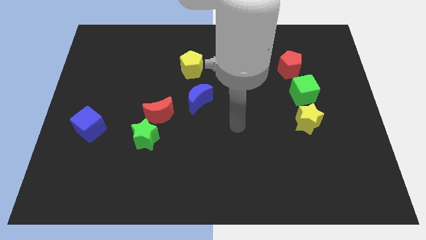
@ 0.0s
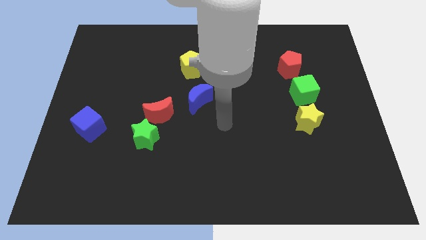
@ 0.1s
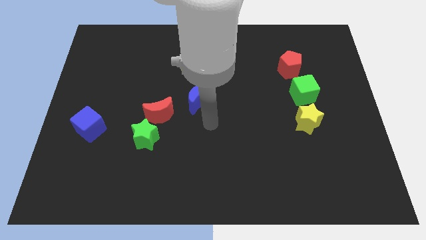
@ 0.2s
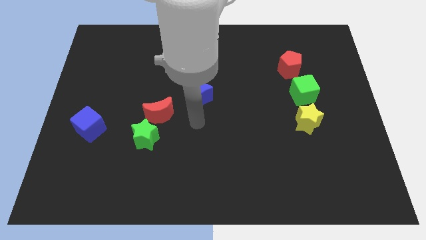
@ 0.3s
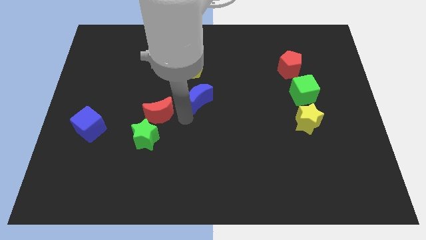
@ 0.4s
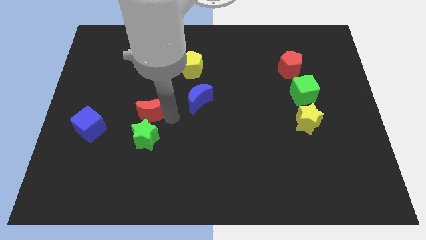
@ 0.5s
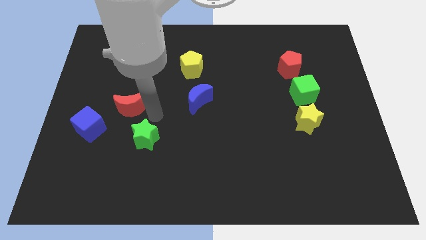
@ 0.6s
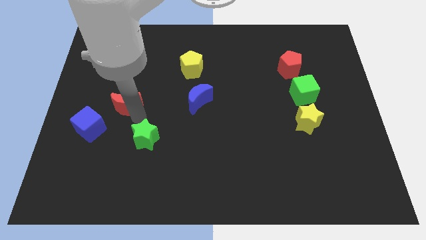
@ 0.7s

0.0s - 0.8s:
separate the green star from the red moon

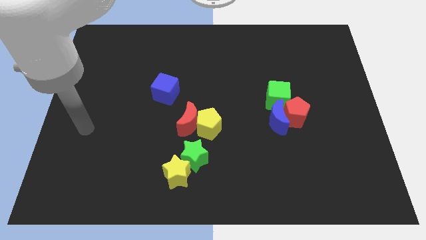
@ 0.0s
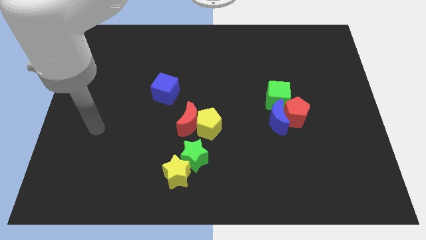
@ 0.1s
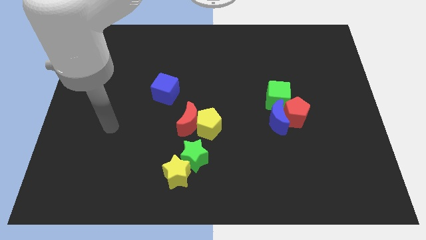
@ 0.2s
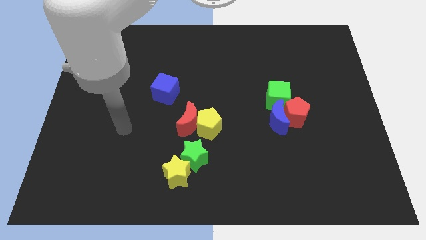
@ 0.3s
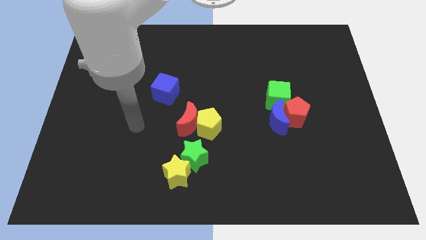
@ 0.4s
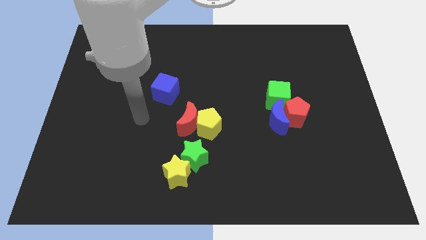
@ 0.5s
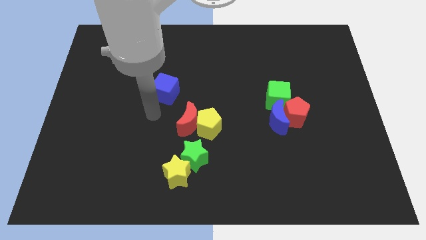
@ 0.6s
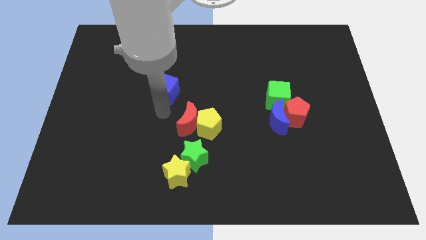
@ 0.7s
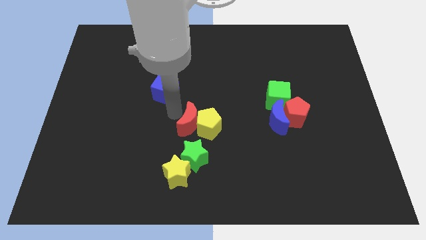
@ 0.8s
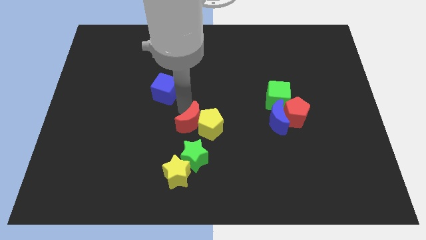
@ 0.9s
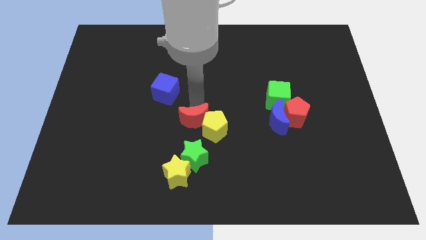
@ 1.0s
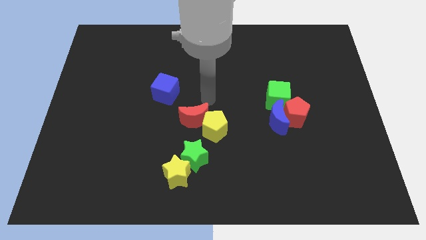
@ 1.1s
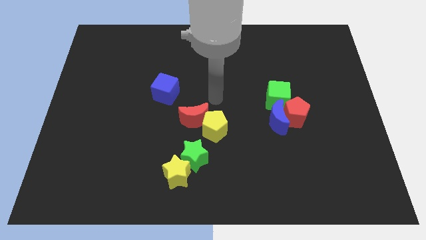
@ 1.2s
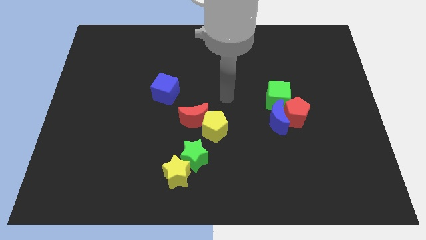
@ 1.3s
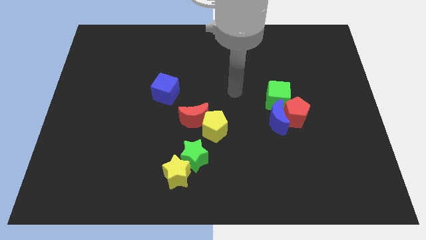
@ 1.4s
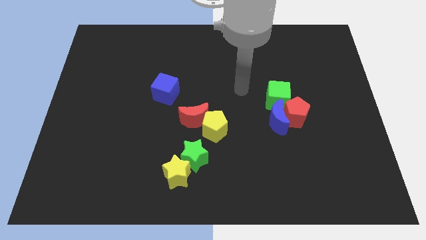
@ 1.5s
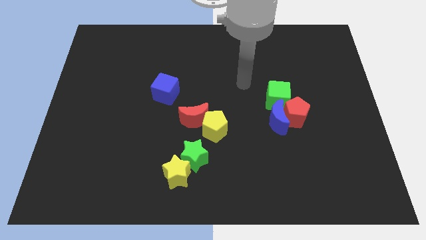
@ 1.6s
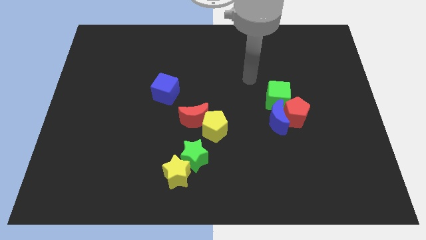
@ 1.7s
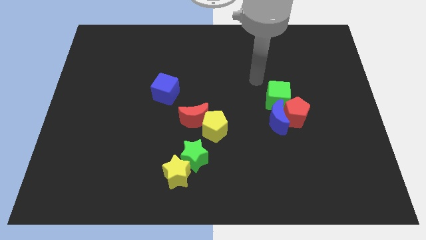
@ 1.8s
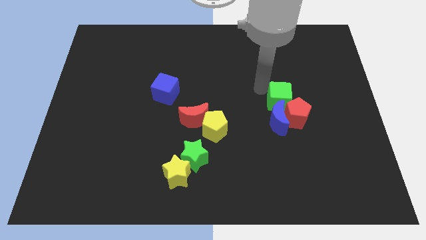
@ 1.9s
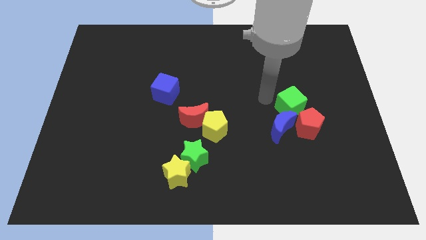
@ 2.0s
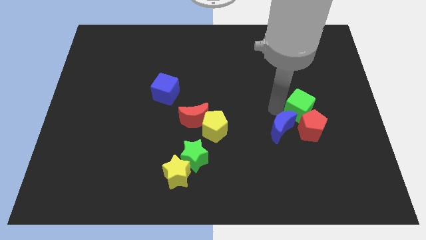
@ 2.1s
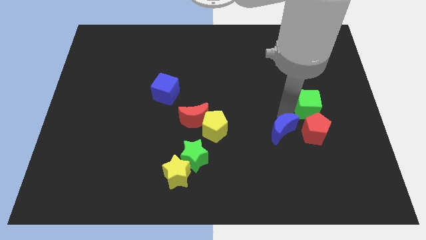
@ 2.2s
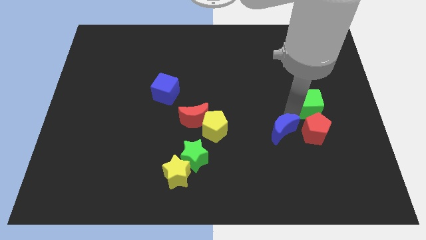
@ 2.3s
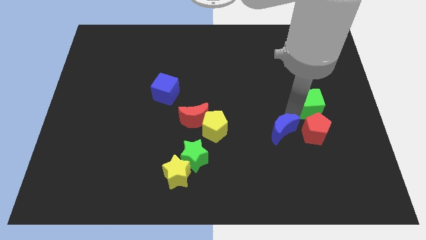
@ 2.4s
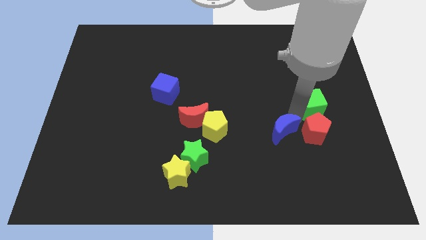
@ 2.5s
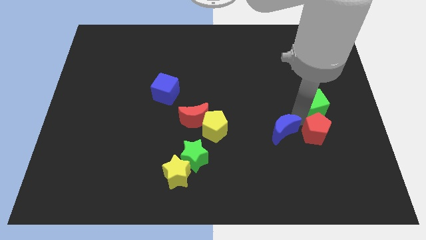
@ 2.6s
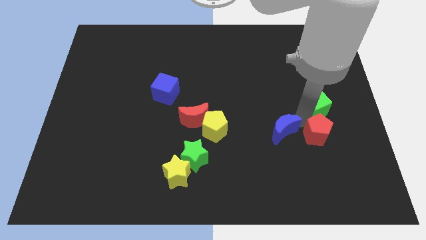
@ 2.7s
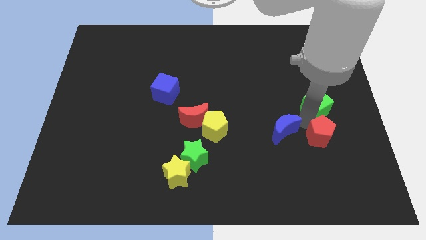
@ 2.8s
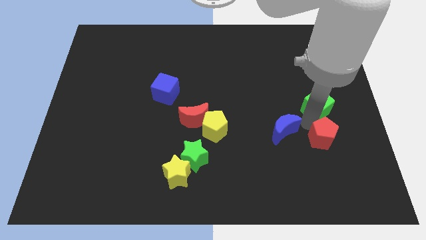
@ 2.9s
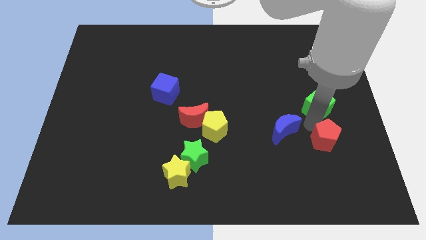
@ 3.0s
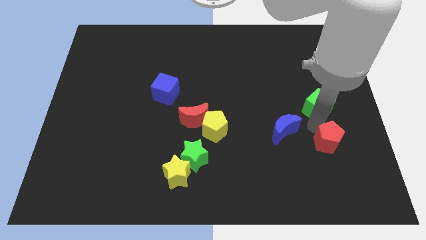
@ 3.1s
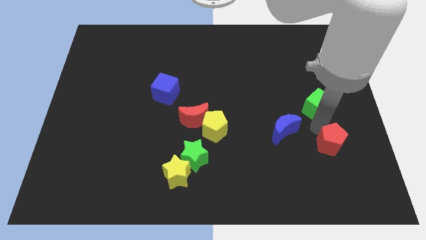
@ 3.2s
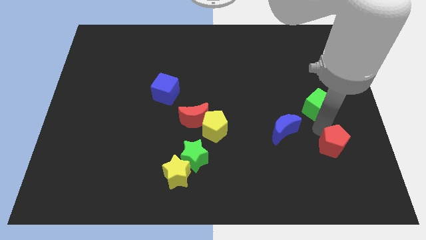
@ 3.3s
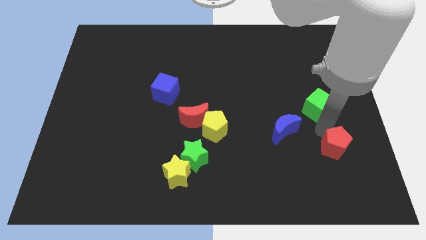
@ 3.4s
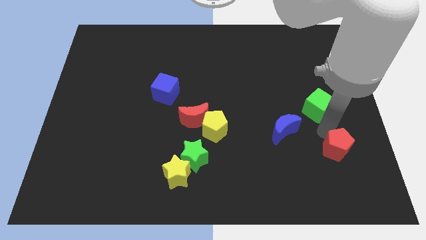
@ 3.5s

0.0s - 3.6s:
move the red pentagon away from the blue moon and green cube

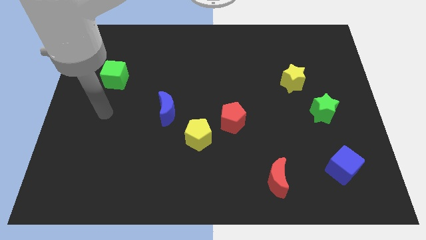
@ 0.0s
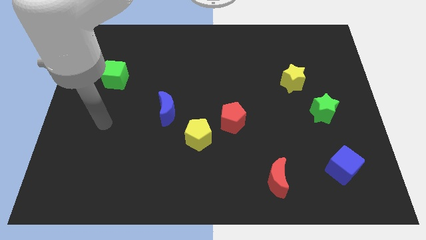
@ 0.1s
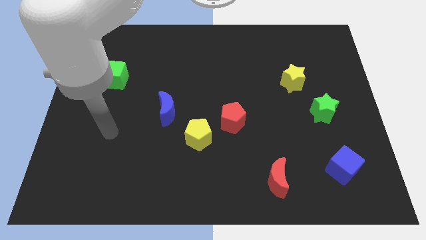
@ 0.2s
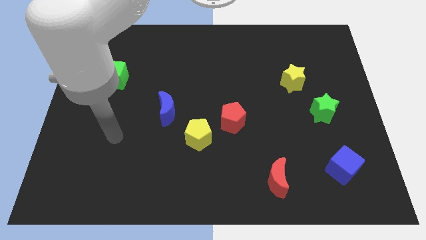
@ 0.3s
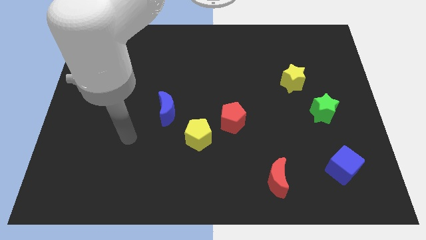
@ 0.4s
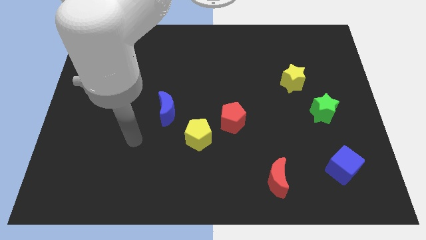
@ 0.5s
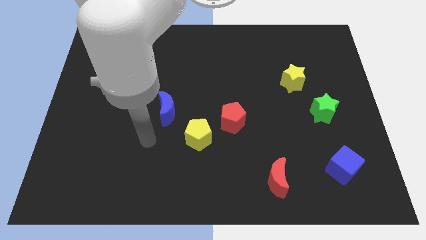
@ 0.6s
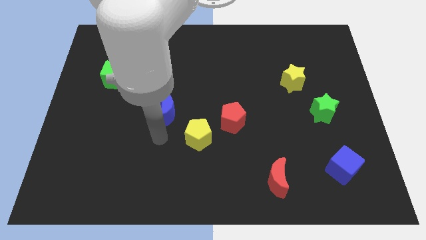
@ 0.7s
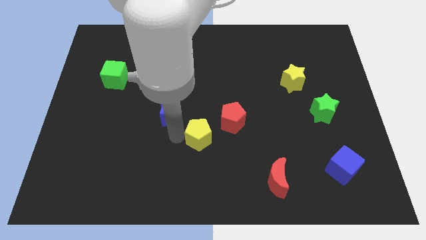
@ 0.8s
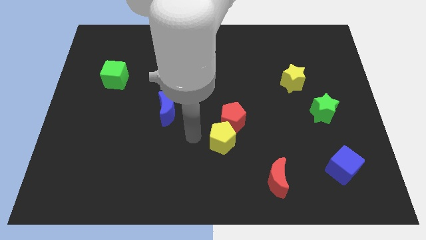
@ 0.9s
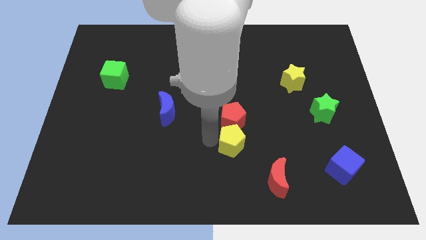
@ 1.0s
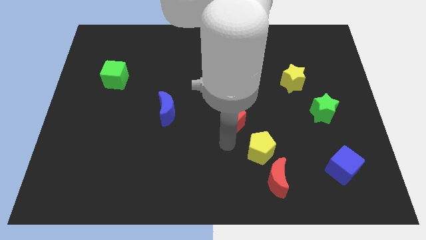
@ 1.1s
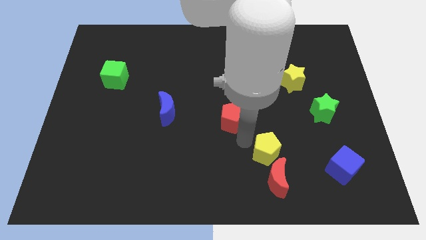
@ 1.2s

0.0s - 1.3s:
separate the red pentagon from the yellow pentagon

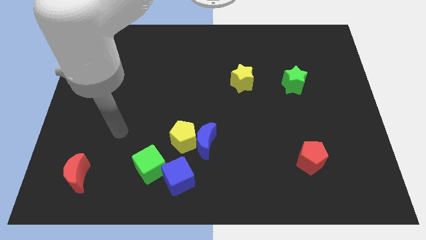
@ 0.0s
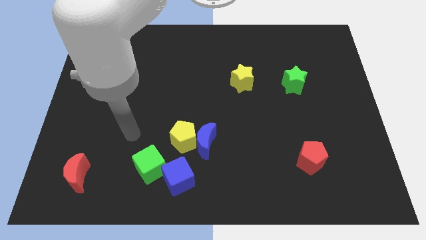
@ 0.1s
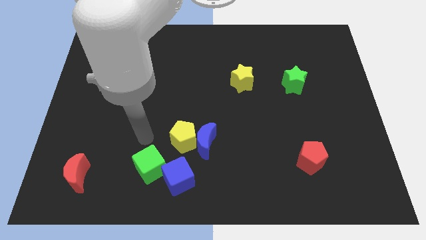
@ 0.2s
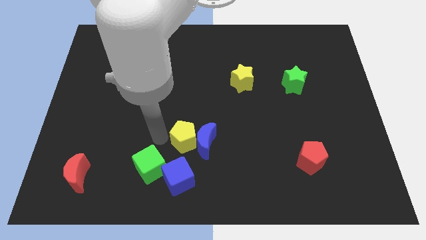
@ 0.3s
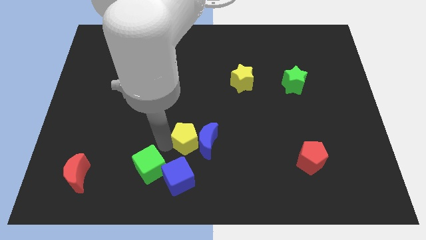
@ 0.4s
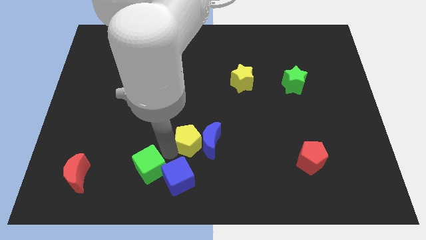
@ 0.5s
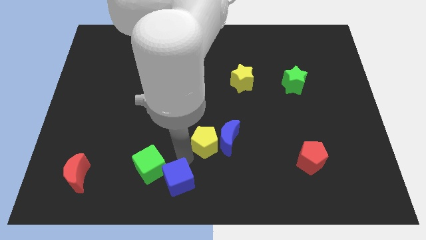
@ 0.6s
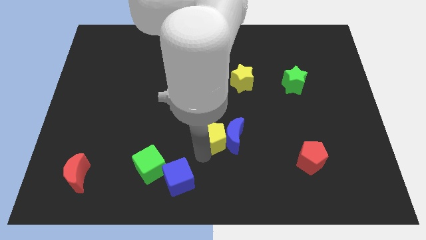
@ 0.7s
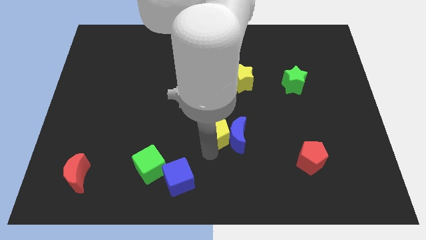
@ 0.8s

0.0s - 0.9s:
move the blue moon away from the yellow pentagon and blue cube

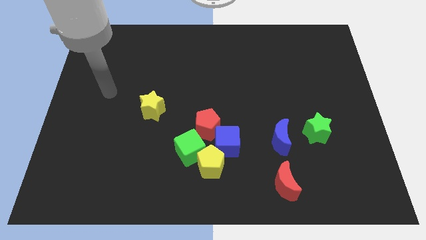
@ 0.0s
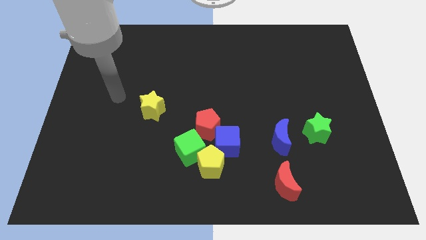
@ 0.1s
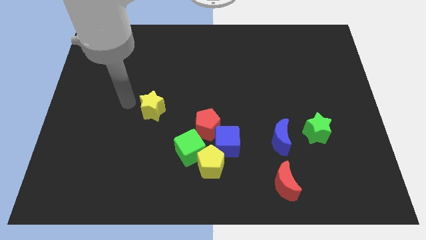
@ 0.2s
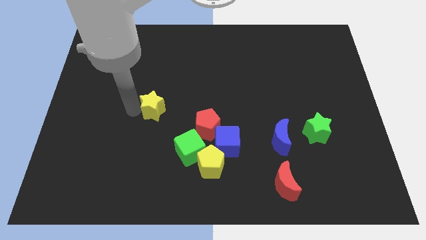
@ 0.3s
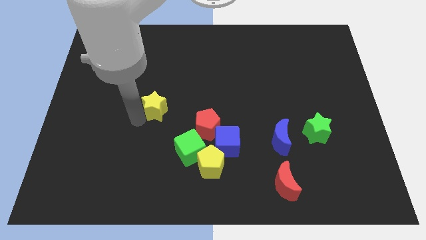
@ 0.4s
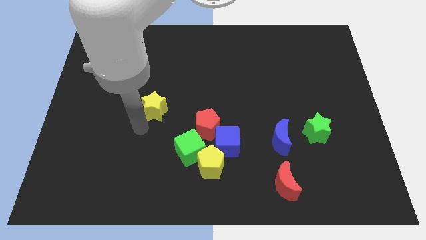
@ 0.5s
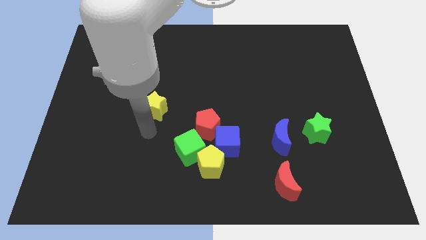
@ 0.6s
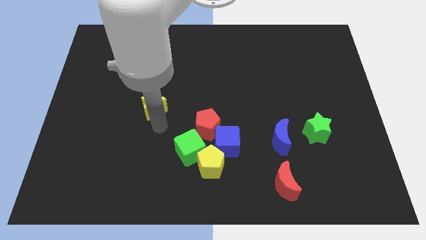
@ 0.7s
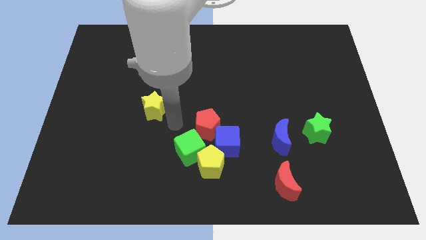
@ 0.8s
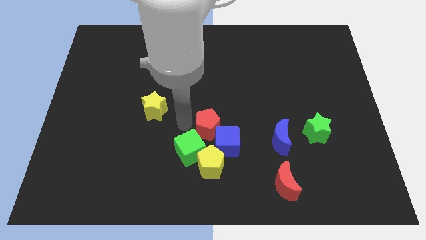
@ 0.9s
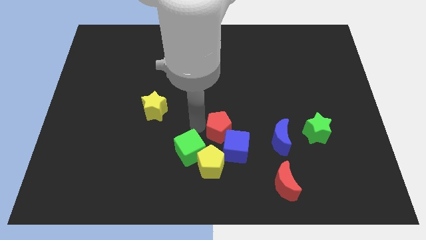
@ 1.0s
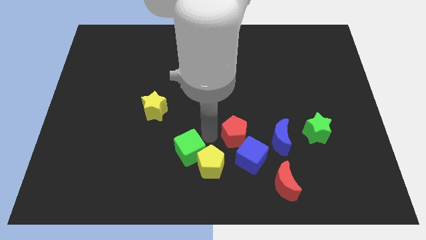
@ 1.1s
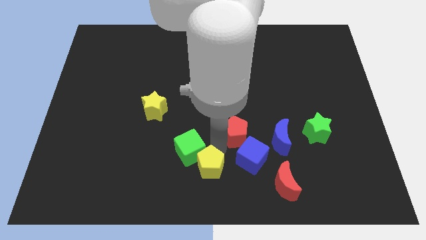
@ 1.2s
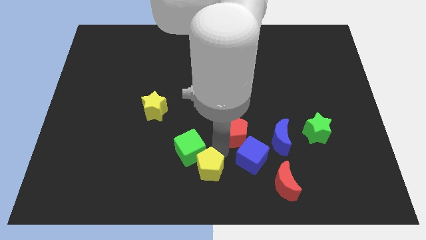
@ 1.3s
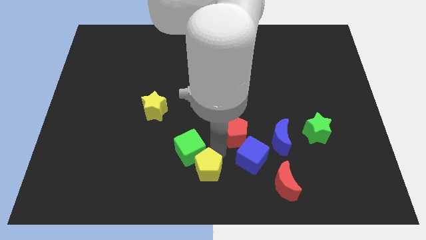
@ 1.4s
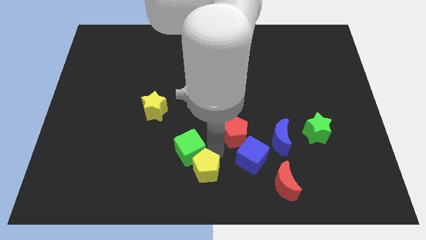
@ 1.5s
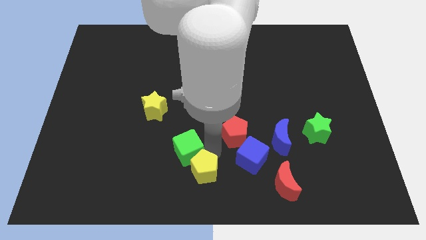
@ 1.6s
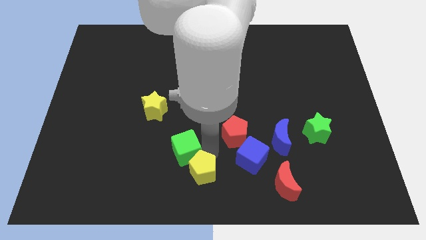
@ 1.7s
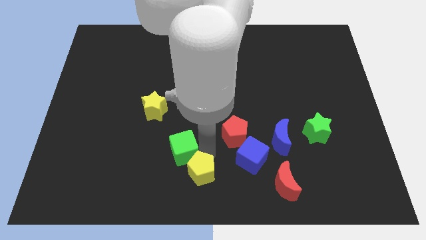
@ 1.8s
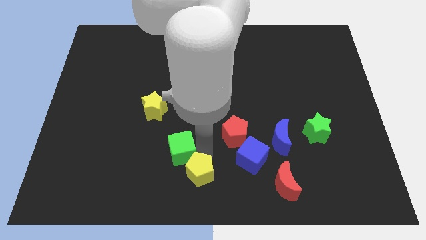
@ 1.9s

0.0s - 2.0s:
move the green cube away from the yellow pentagon, red pentagon, and blue cube

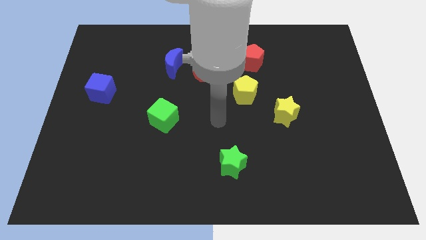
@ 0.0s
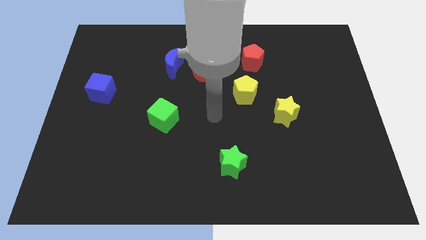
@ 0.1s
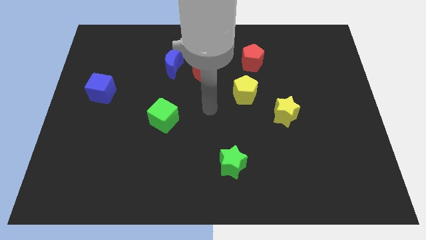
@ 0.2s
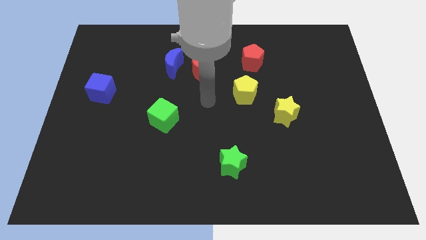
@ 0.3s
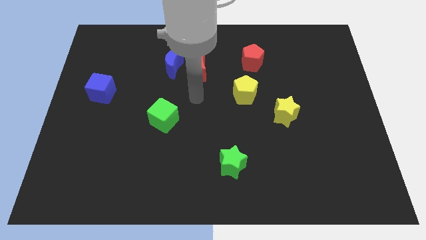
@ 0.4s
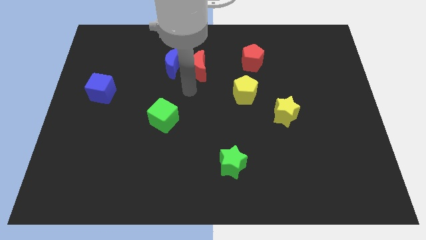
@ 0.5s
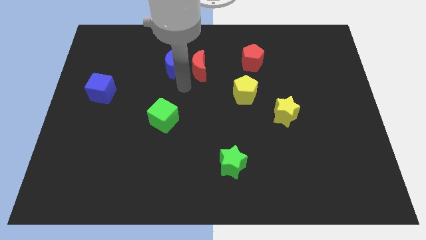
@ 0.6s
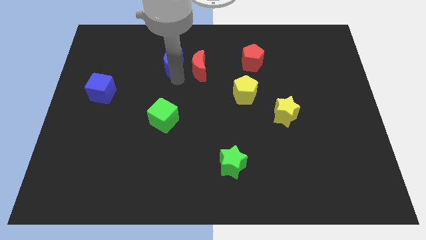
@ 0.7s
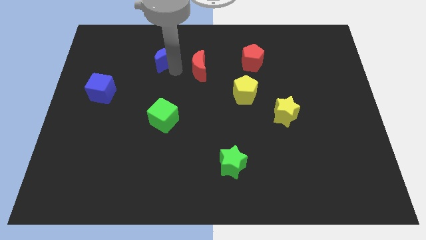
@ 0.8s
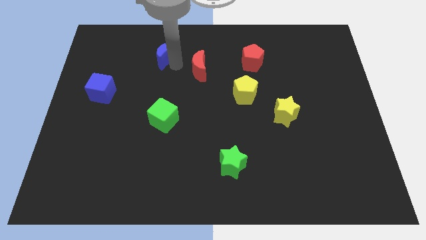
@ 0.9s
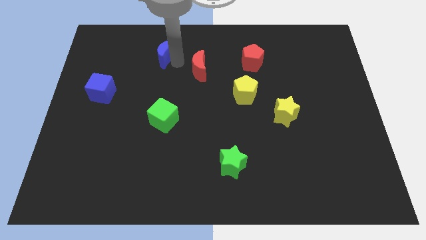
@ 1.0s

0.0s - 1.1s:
separate the red moon from the blue moon
